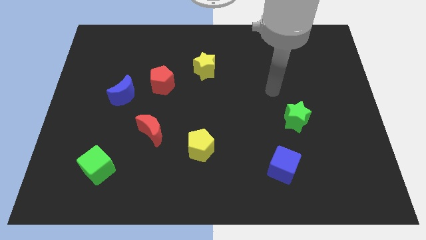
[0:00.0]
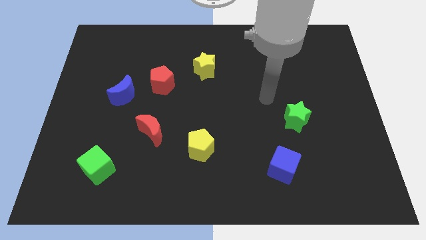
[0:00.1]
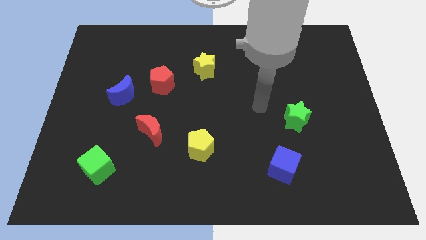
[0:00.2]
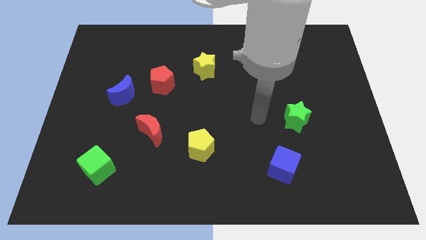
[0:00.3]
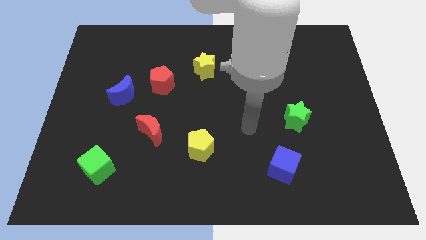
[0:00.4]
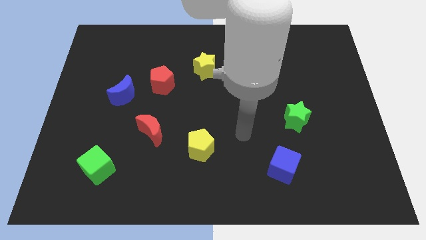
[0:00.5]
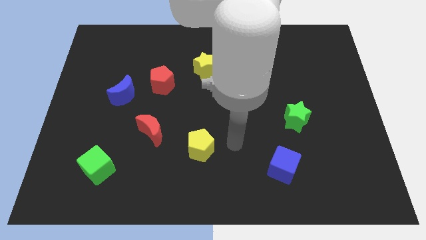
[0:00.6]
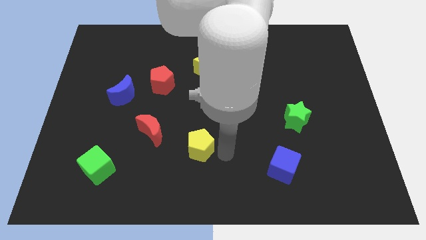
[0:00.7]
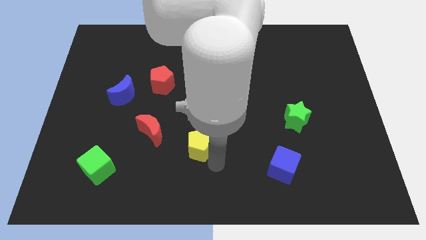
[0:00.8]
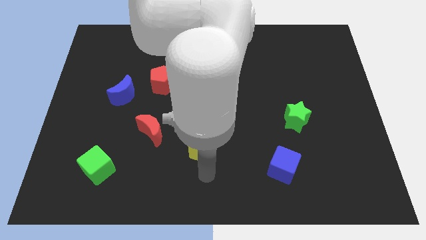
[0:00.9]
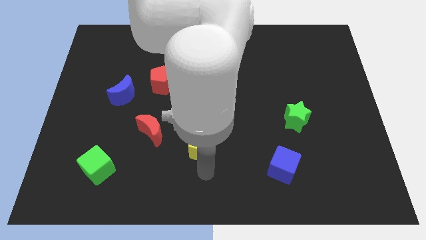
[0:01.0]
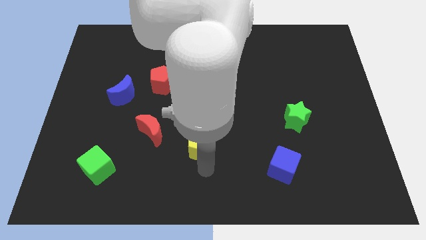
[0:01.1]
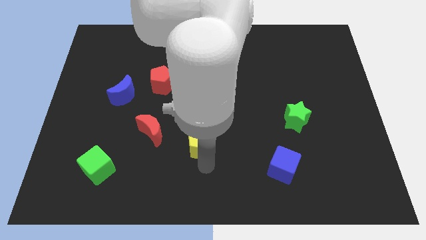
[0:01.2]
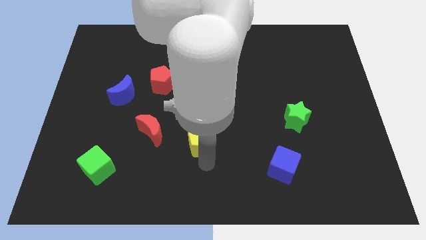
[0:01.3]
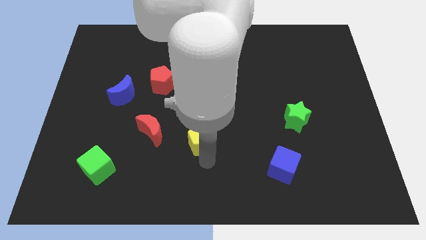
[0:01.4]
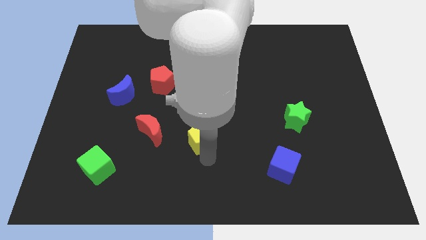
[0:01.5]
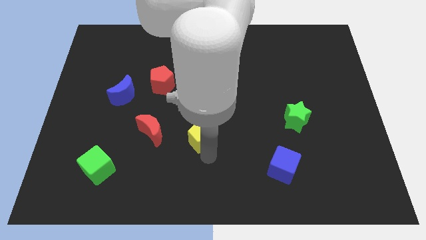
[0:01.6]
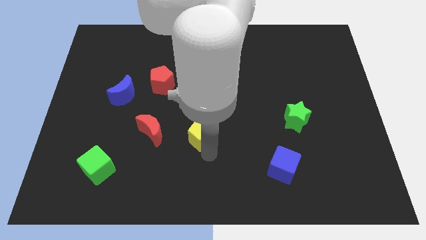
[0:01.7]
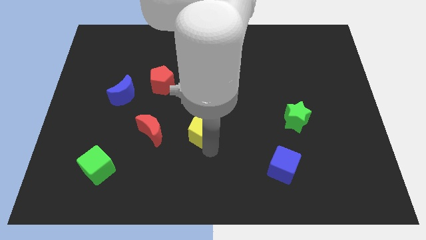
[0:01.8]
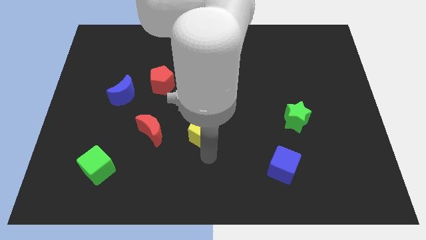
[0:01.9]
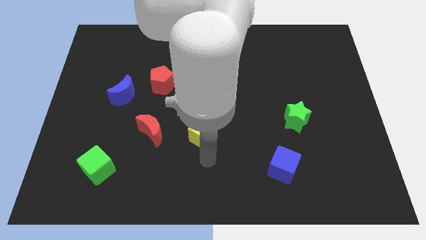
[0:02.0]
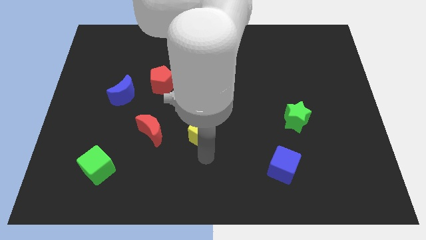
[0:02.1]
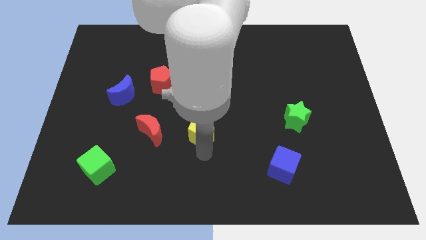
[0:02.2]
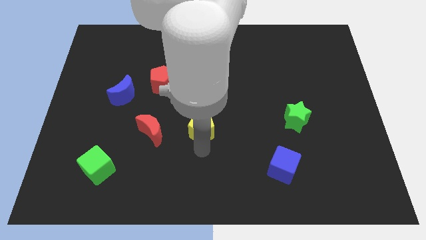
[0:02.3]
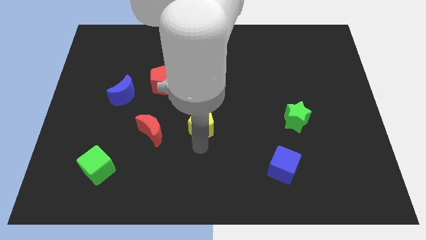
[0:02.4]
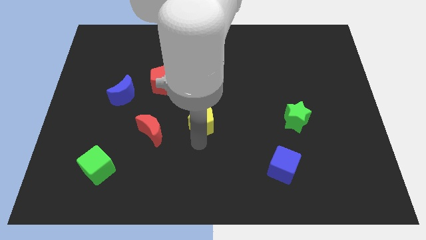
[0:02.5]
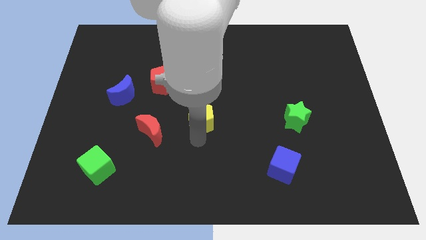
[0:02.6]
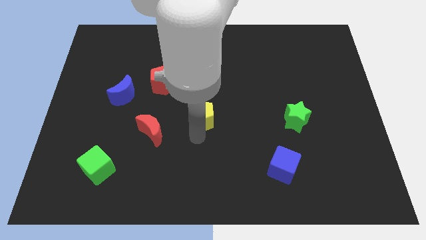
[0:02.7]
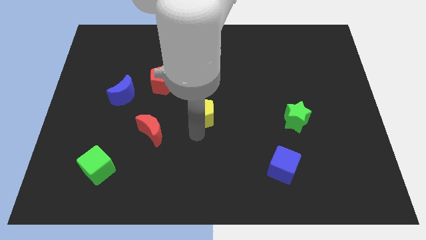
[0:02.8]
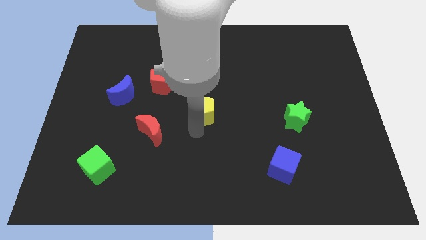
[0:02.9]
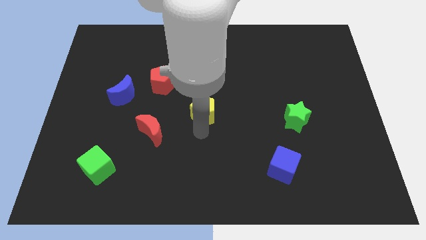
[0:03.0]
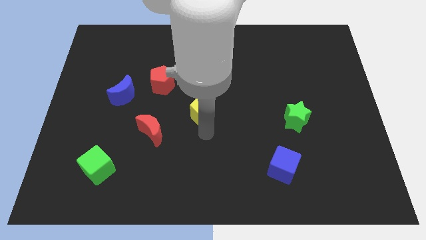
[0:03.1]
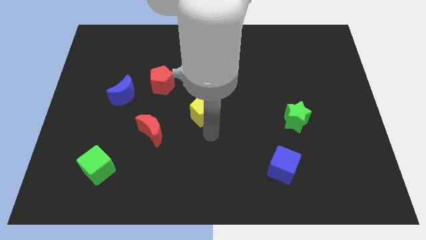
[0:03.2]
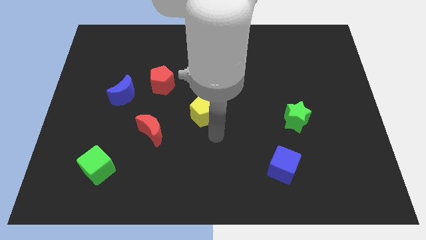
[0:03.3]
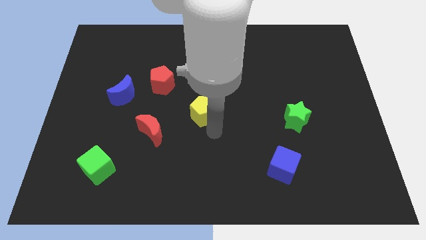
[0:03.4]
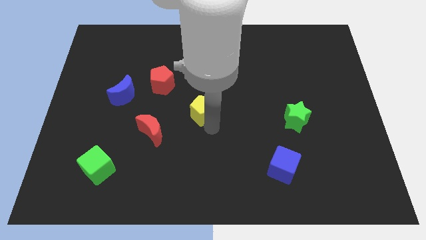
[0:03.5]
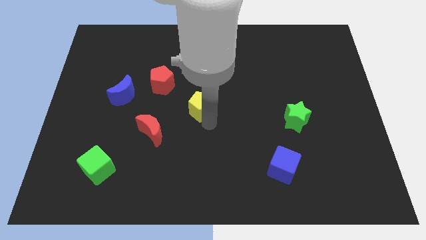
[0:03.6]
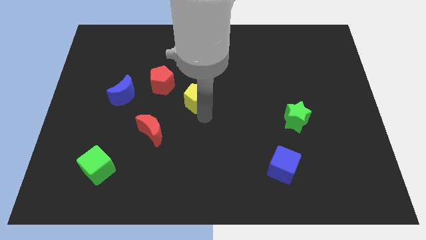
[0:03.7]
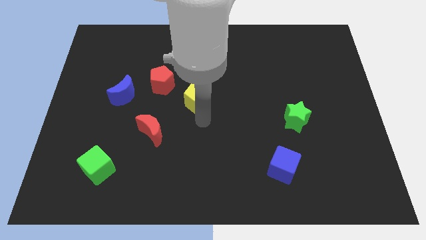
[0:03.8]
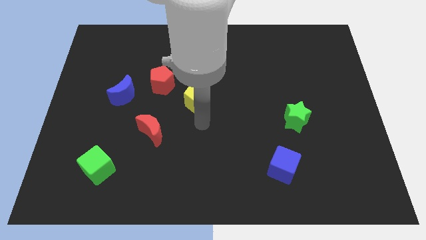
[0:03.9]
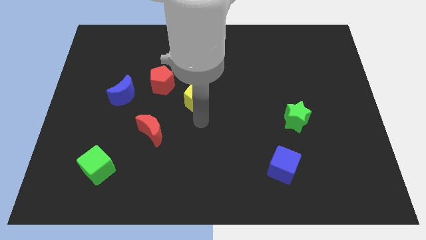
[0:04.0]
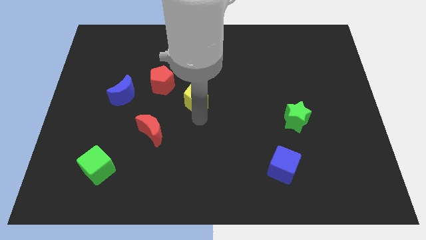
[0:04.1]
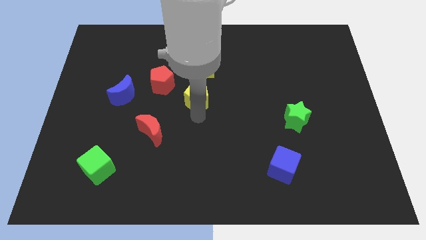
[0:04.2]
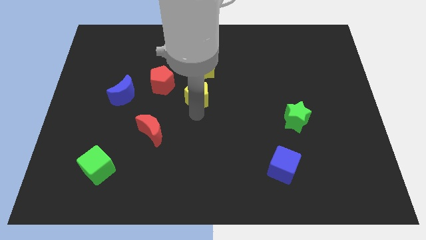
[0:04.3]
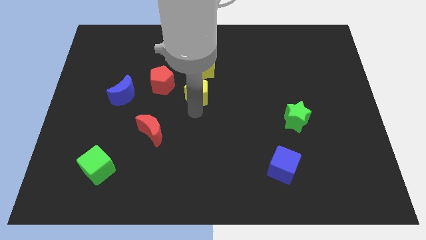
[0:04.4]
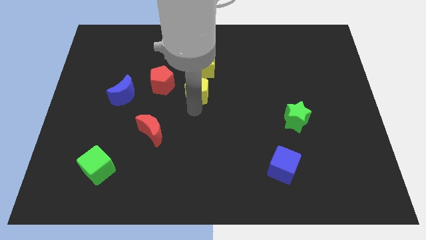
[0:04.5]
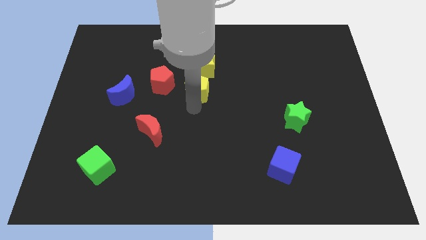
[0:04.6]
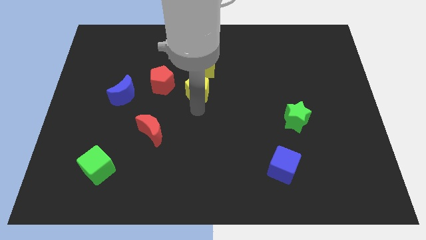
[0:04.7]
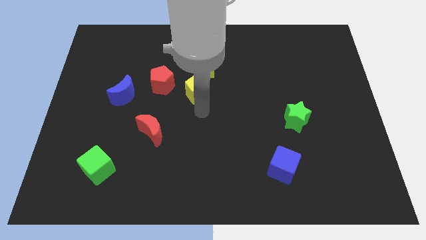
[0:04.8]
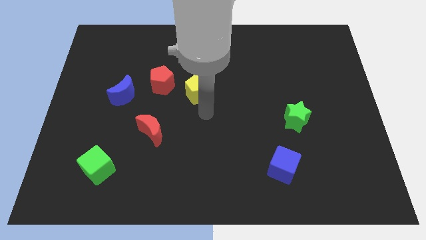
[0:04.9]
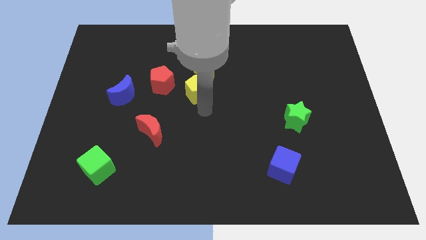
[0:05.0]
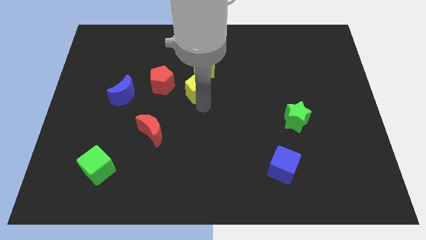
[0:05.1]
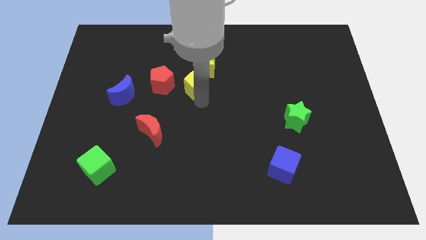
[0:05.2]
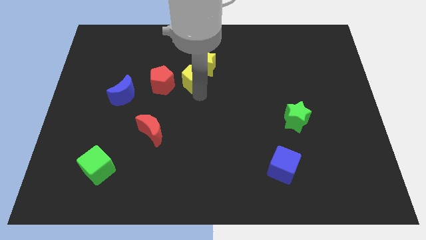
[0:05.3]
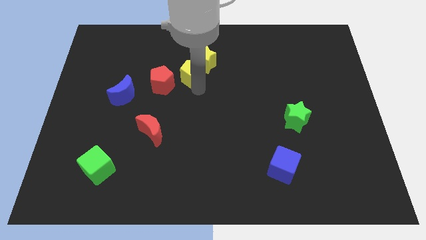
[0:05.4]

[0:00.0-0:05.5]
push the yellow pentagon to the top right of the red pentagon

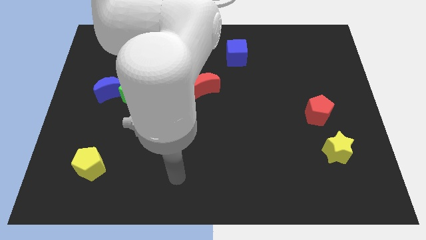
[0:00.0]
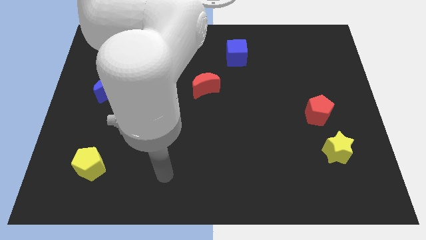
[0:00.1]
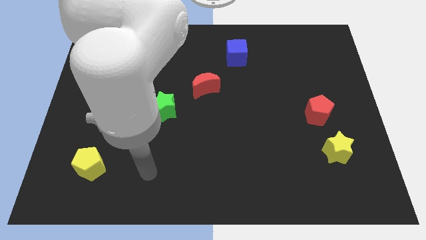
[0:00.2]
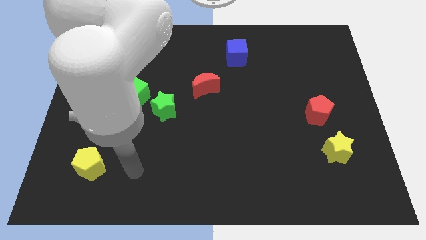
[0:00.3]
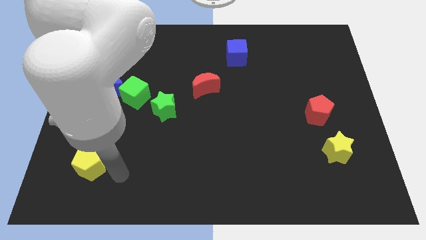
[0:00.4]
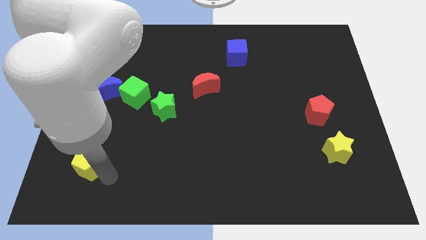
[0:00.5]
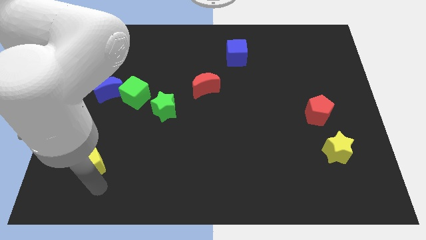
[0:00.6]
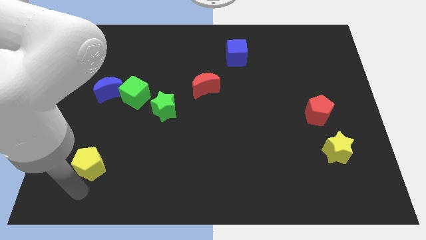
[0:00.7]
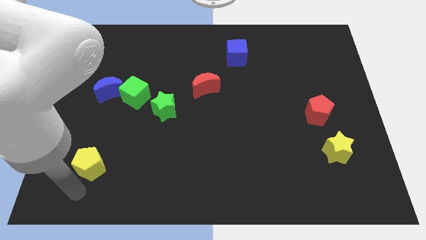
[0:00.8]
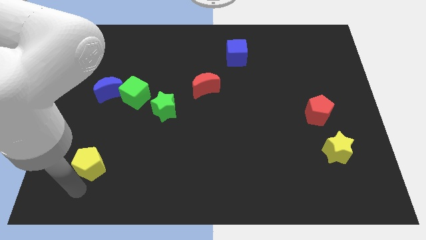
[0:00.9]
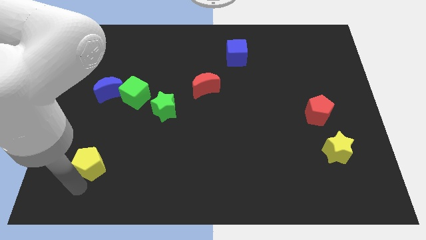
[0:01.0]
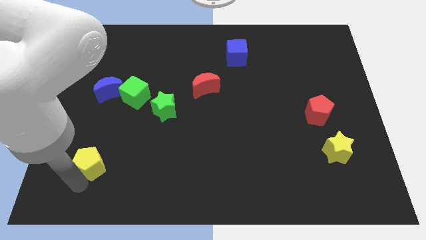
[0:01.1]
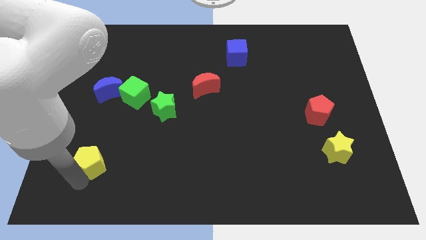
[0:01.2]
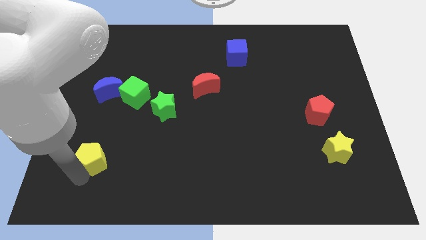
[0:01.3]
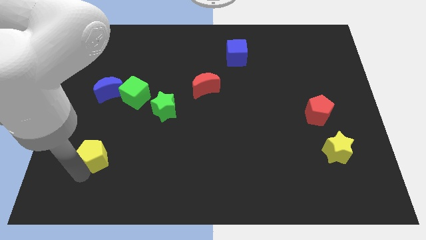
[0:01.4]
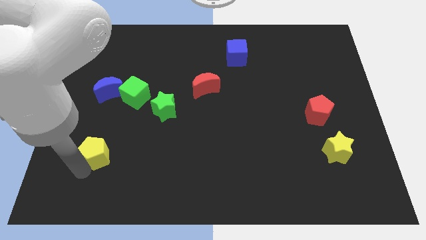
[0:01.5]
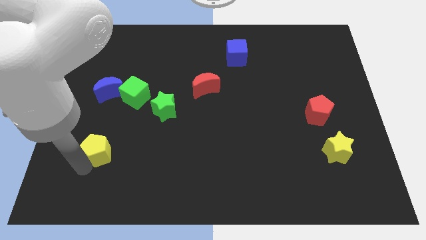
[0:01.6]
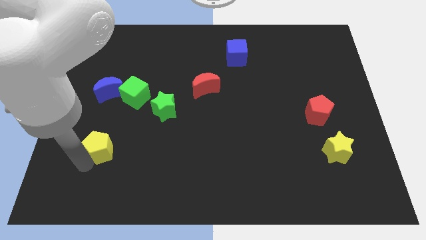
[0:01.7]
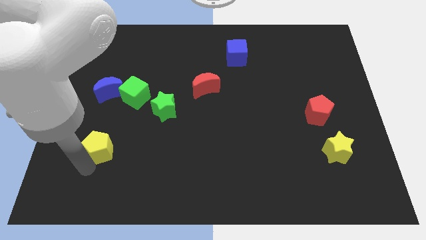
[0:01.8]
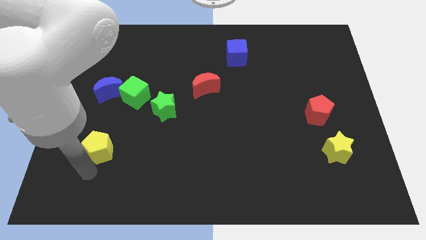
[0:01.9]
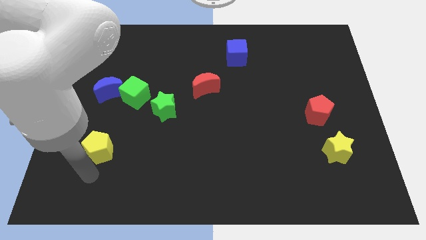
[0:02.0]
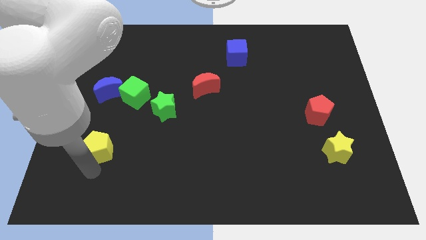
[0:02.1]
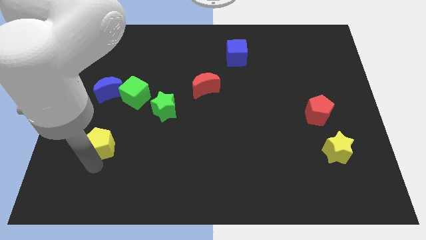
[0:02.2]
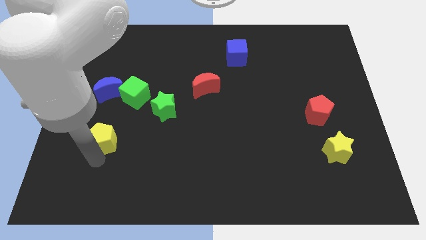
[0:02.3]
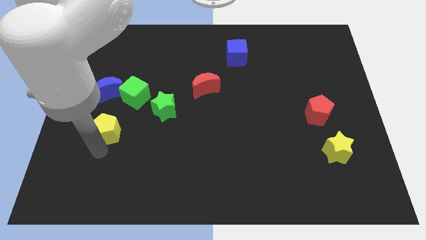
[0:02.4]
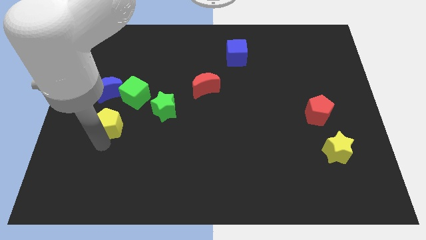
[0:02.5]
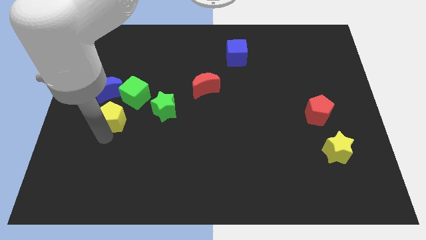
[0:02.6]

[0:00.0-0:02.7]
move the yellow pentagon diagonally down and to the right of the blue moon
